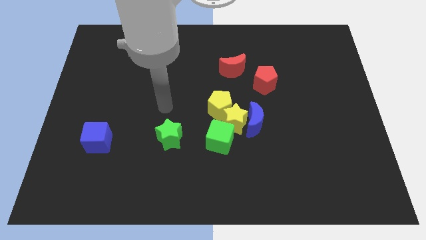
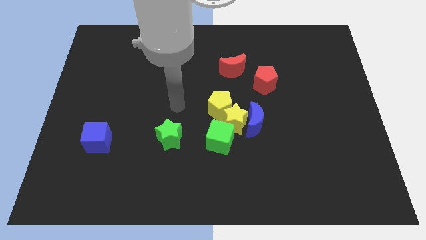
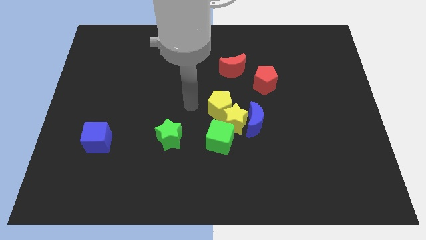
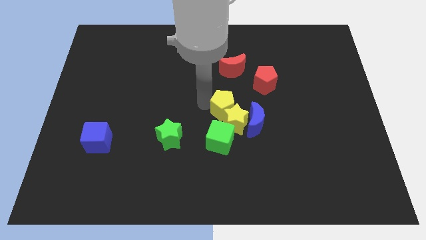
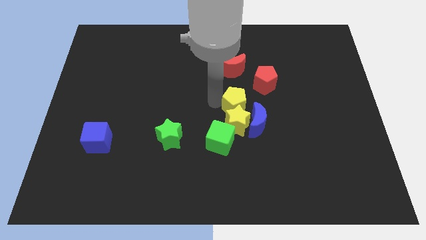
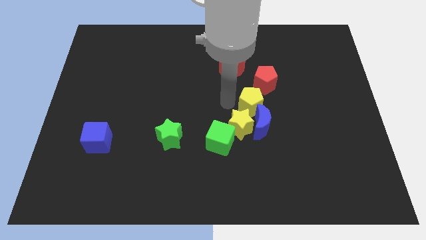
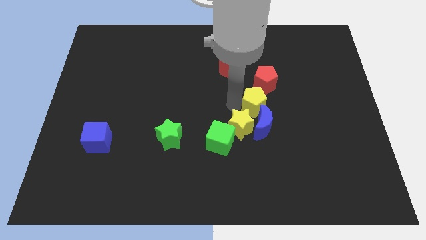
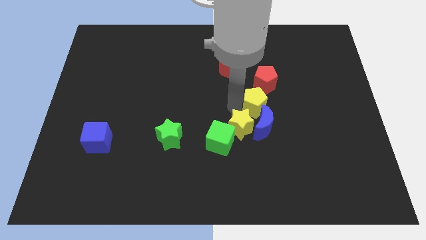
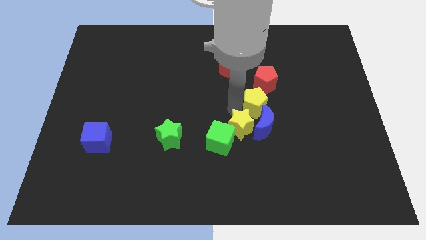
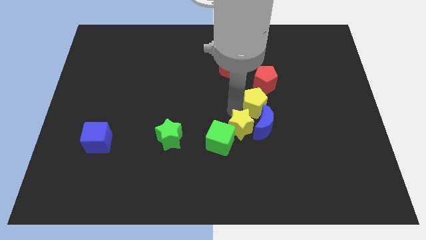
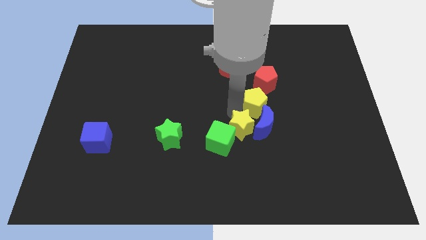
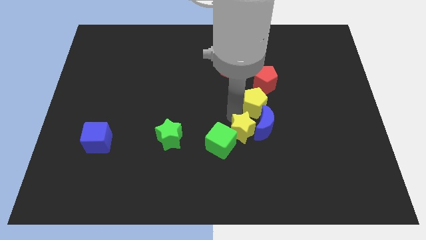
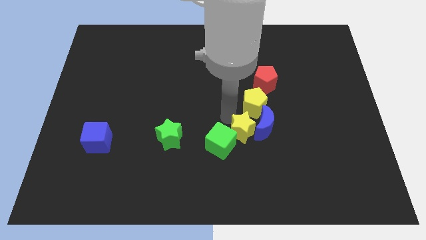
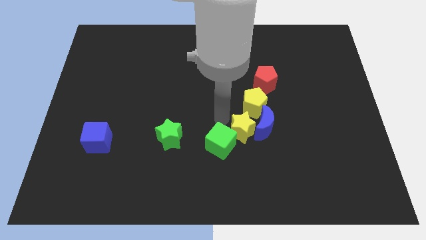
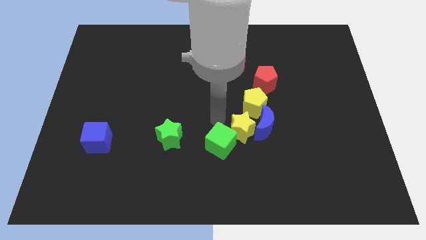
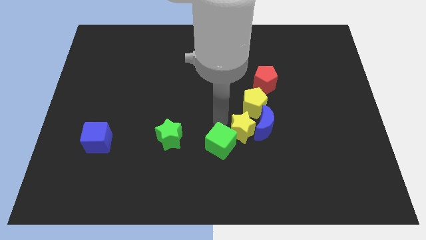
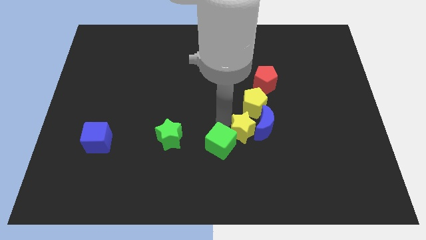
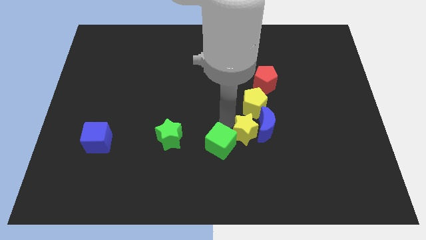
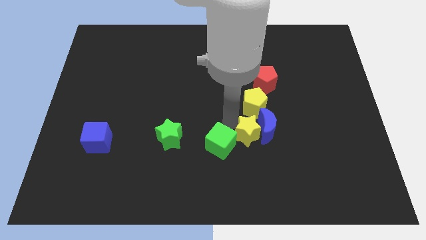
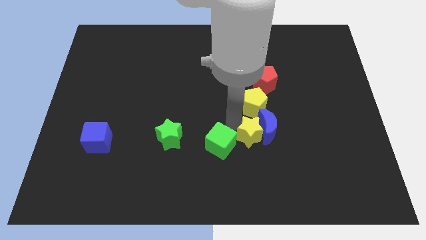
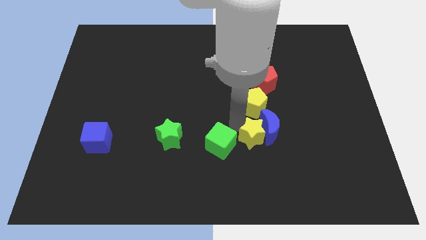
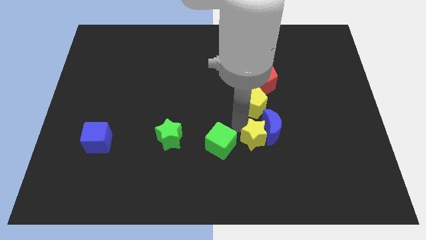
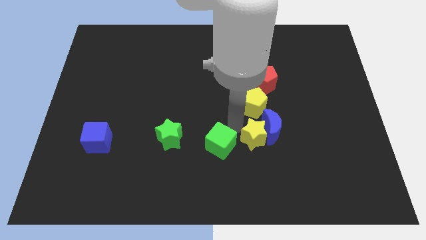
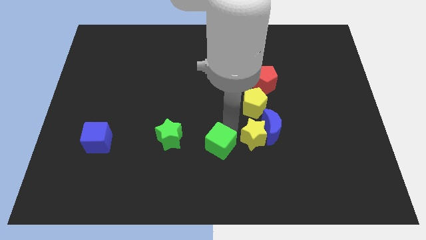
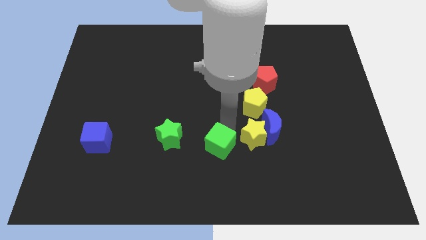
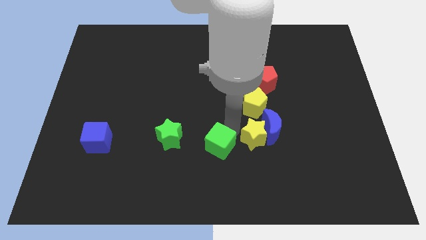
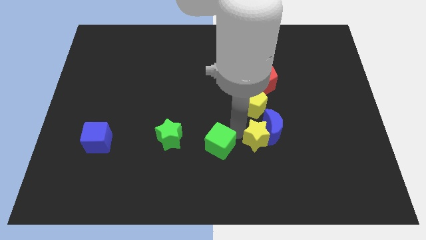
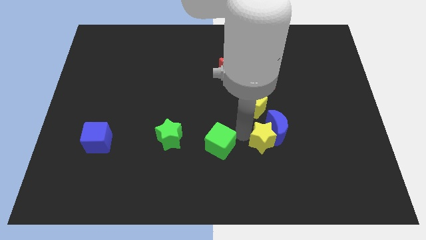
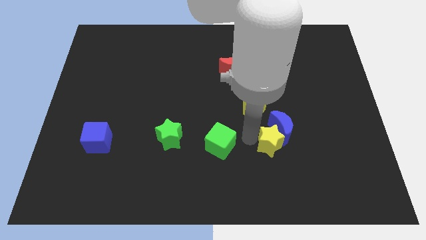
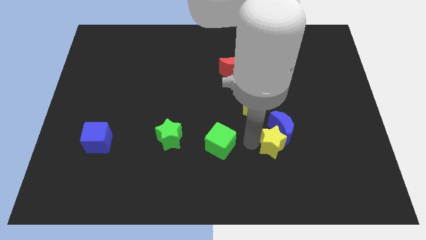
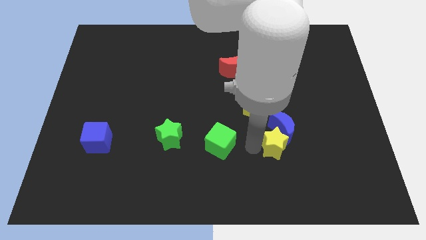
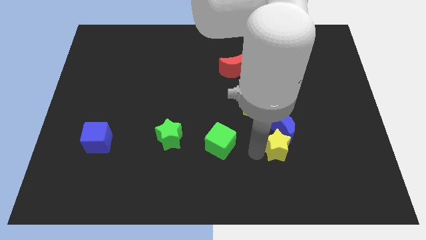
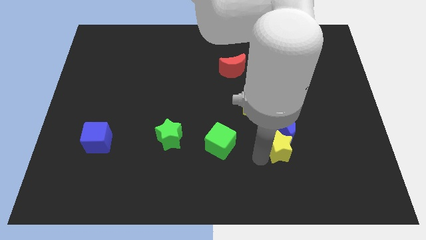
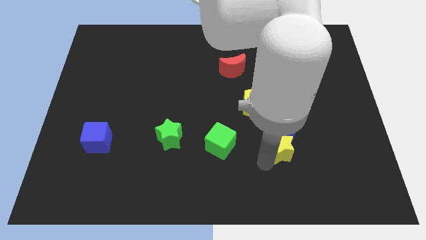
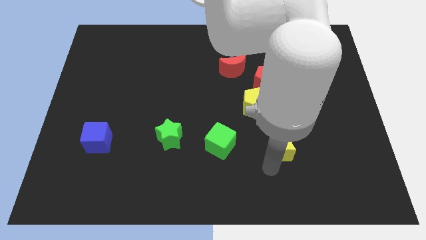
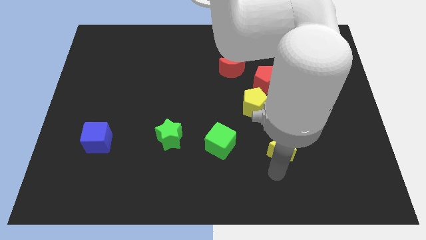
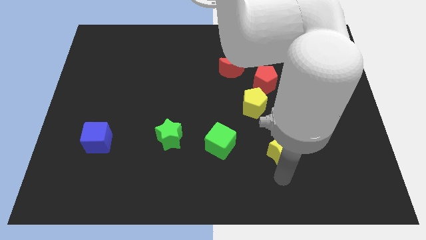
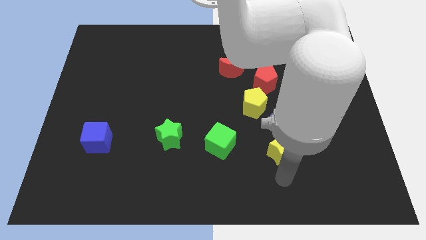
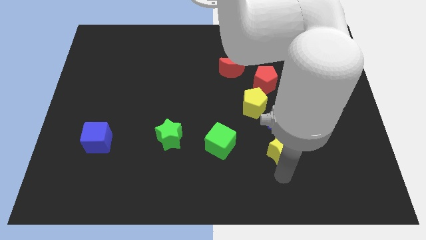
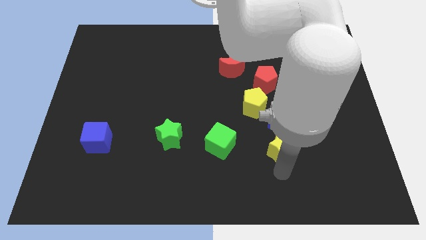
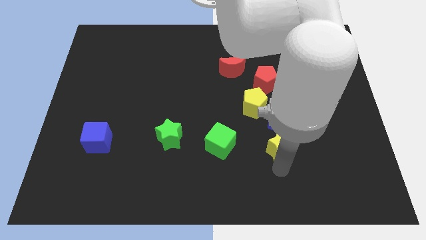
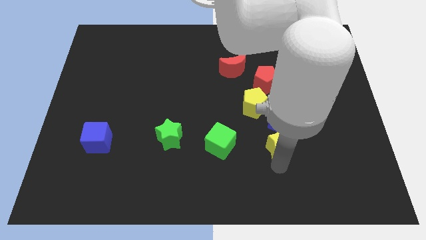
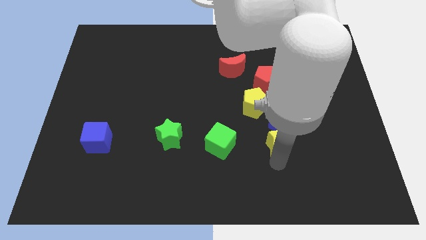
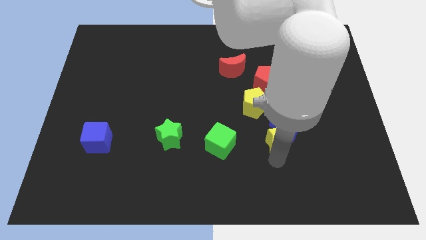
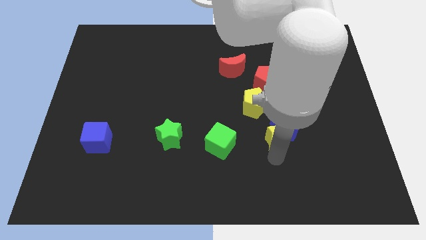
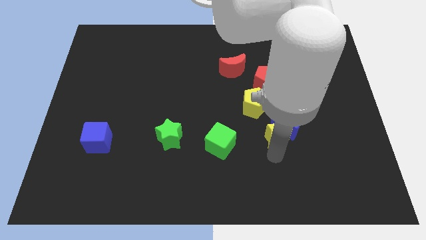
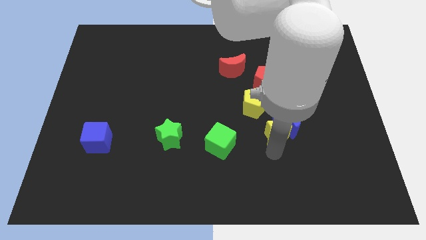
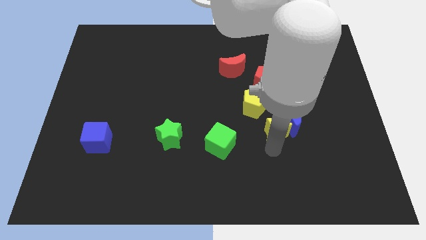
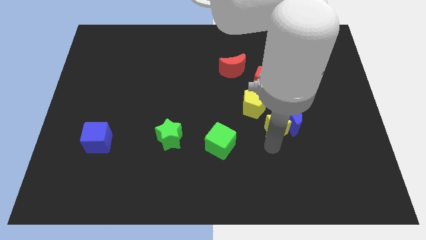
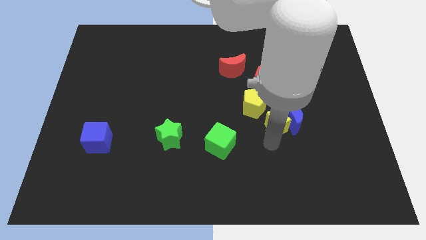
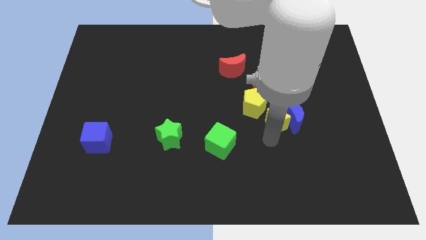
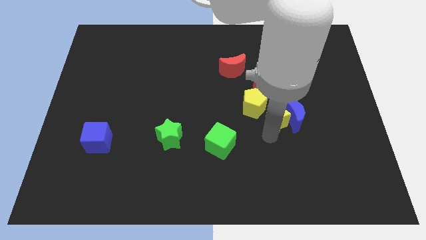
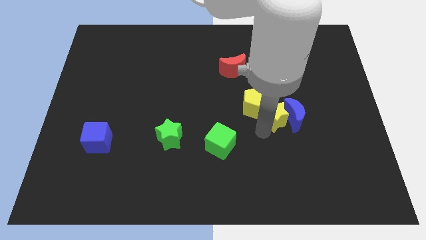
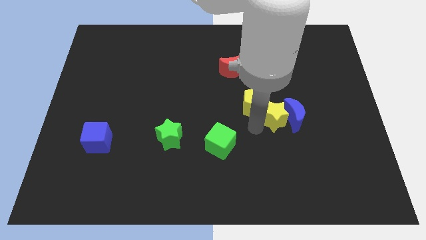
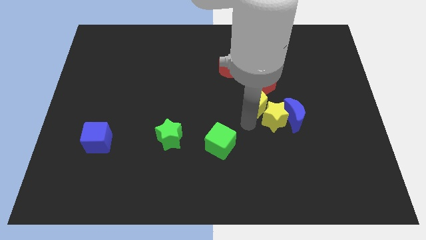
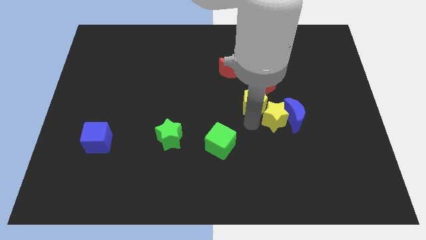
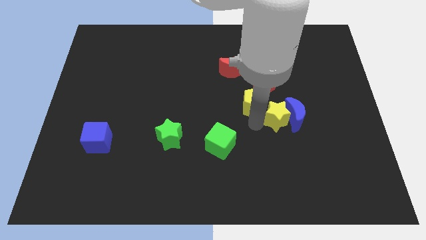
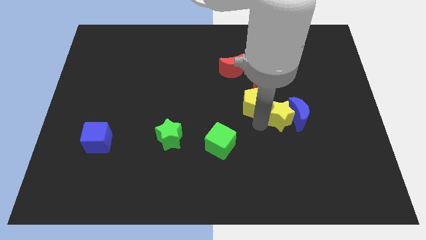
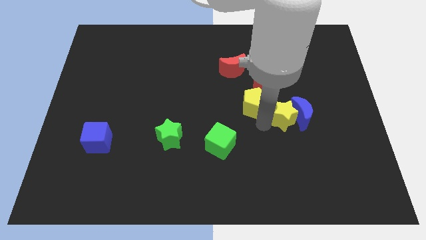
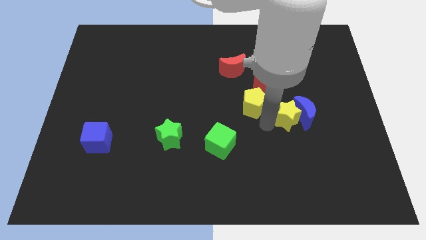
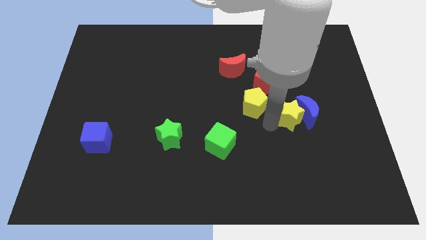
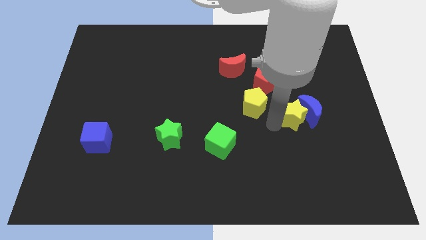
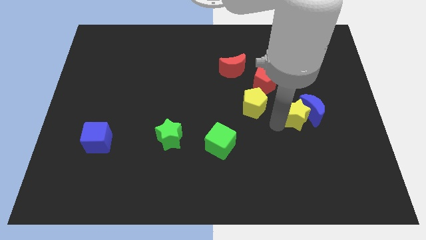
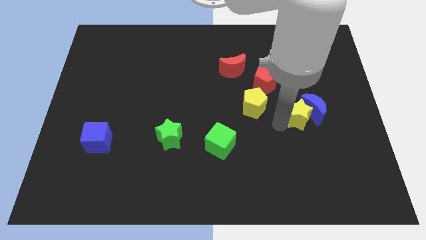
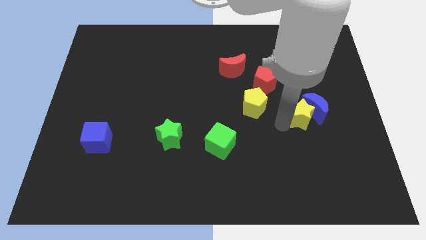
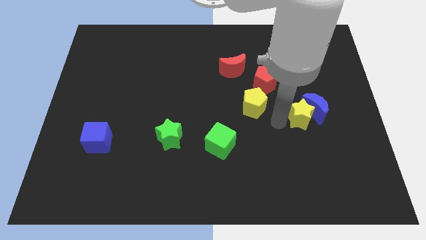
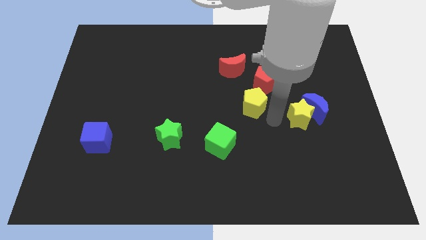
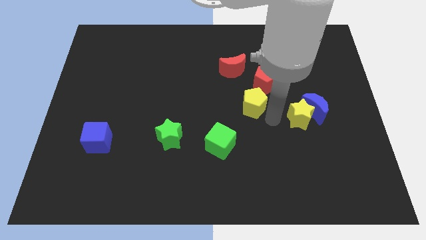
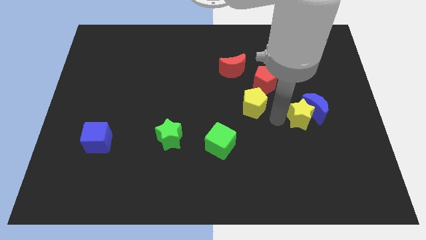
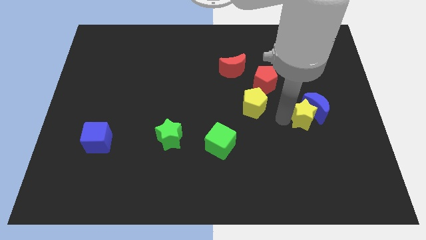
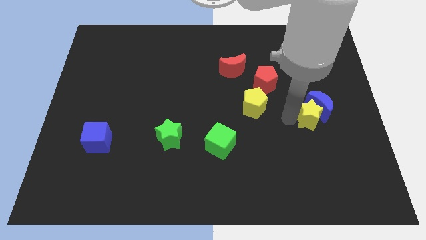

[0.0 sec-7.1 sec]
separate the yellow star from the blue moon, yellow pentagon, and green cube

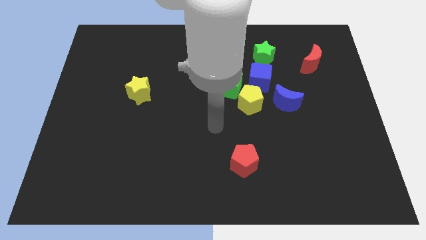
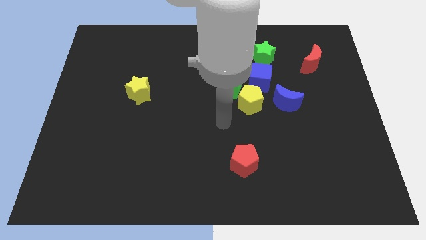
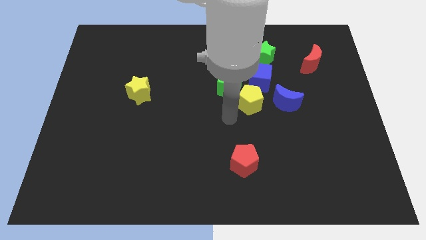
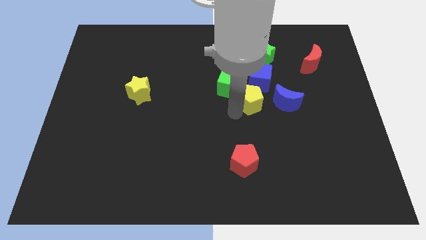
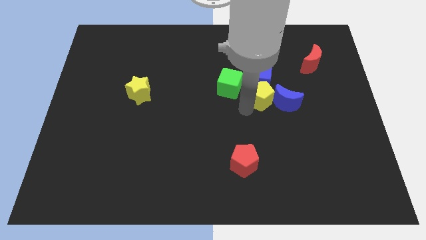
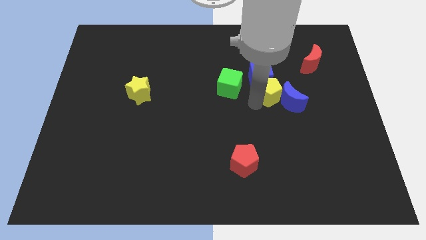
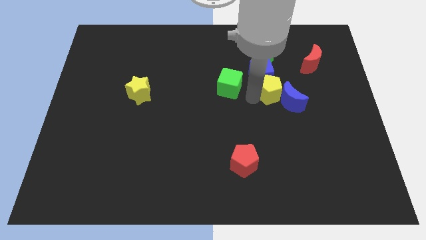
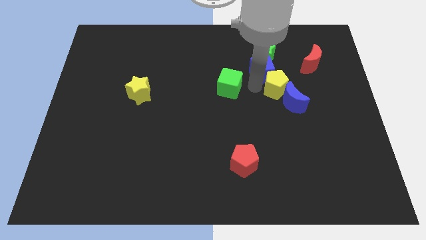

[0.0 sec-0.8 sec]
separate the green cube from the yellow pentagon and blue cube

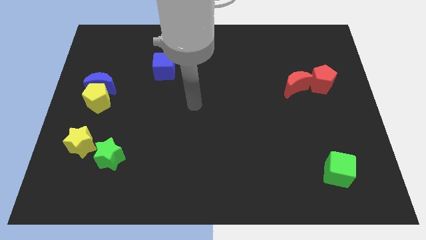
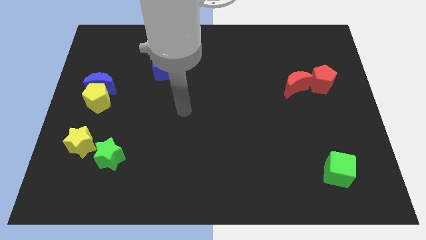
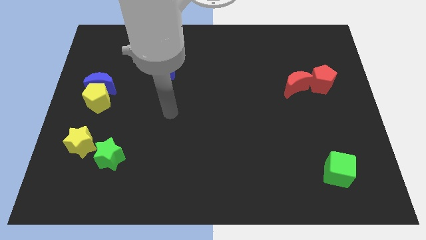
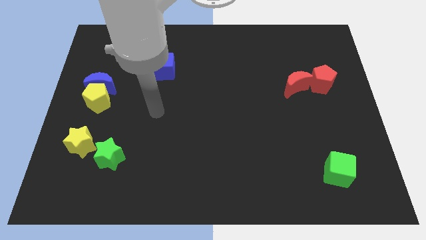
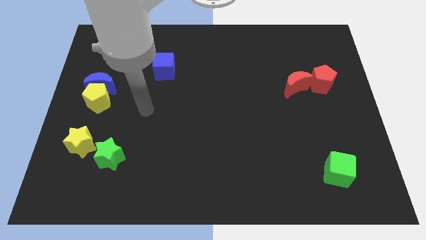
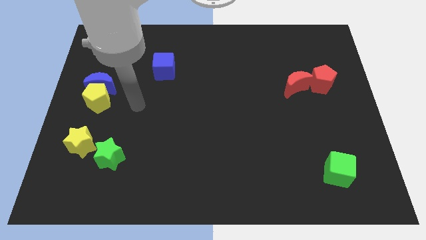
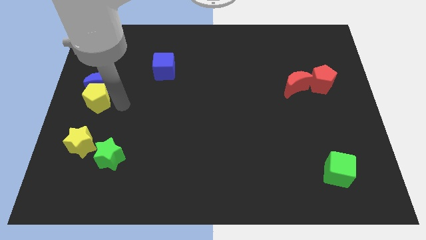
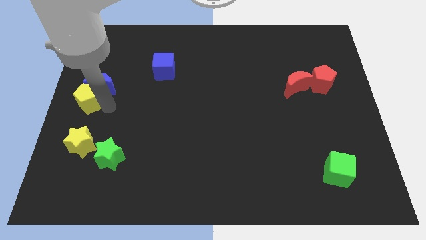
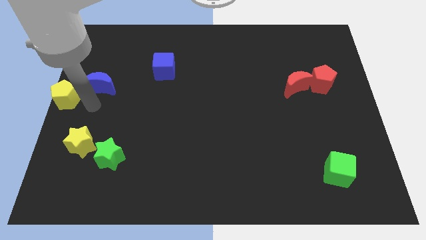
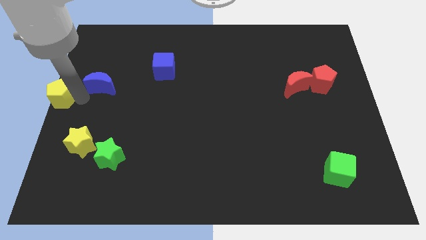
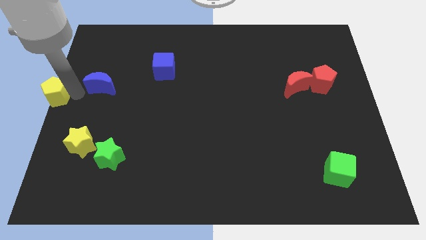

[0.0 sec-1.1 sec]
separate the blue moon from the yellow pentagon

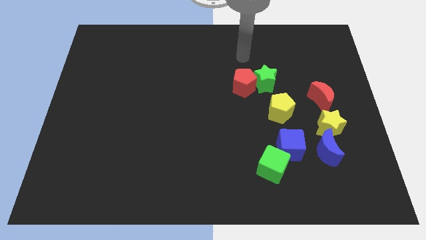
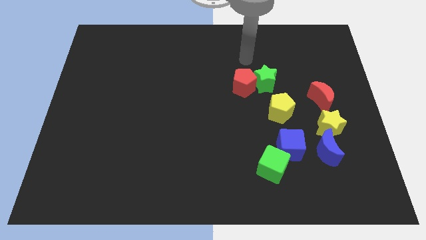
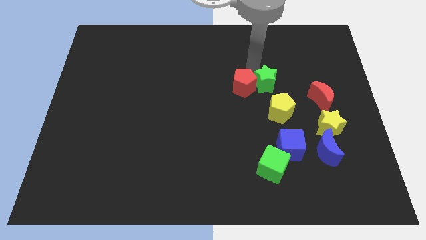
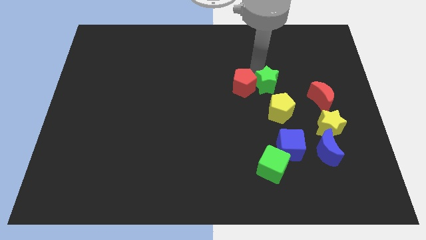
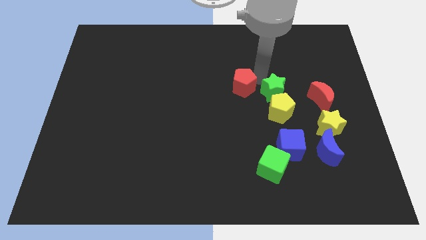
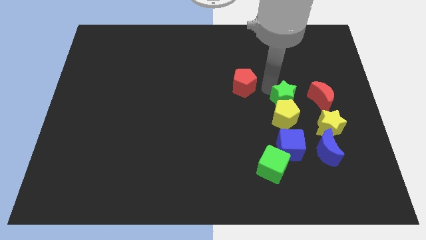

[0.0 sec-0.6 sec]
pull the red pentagon apart from the green star
